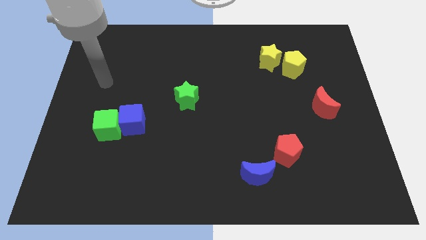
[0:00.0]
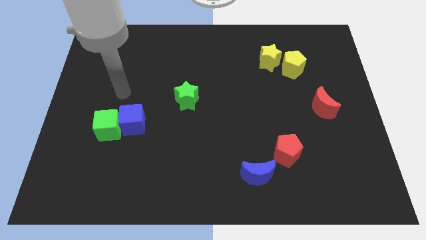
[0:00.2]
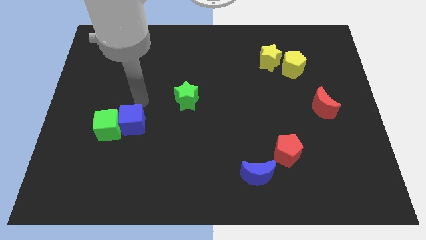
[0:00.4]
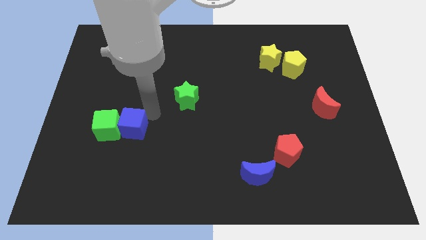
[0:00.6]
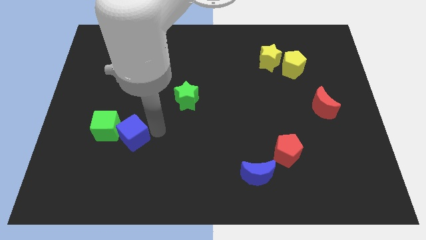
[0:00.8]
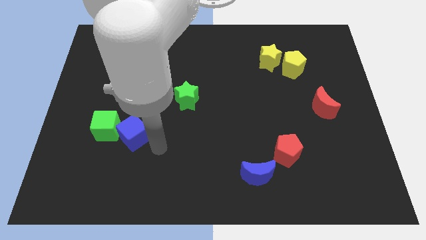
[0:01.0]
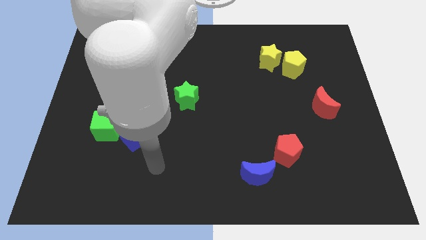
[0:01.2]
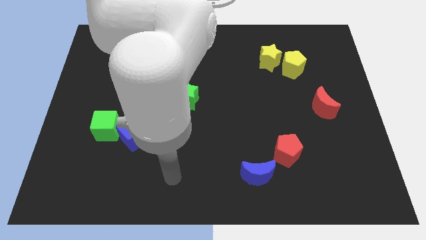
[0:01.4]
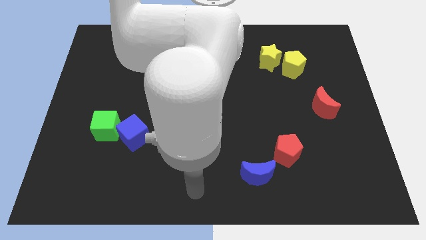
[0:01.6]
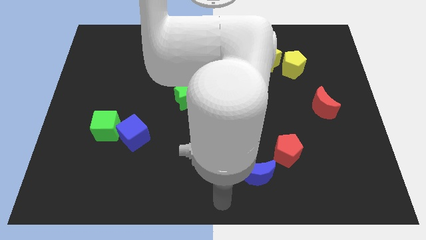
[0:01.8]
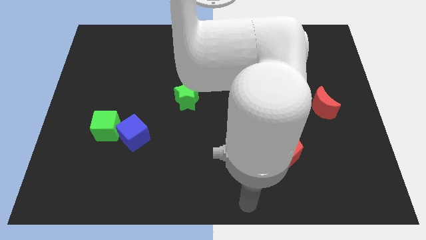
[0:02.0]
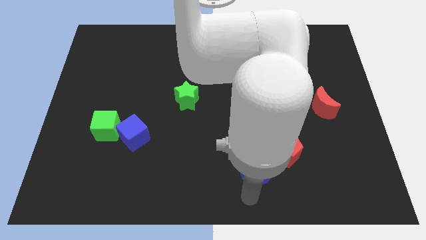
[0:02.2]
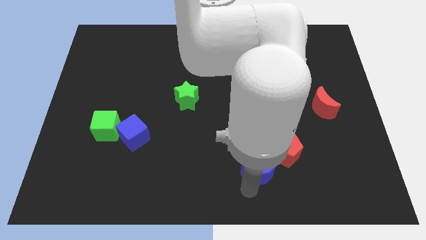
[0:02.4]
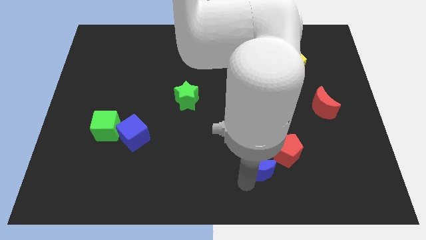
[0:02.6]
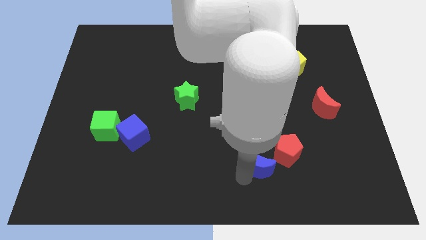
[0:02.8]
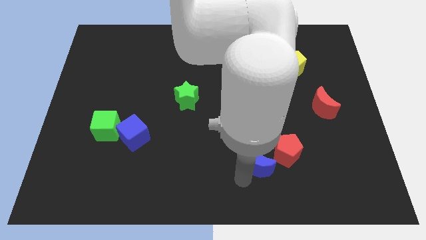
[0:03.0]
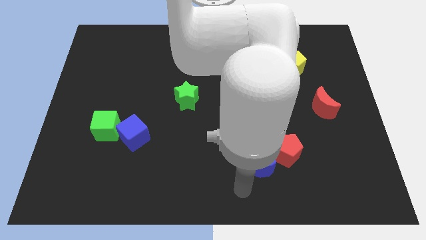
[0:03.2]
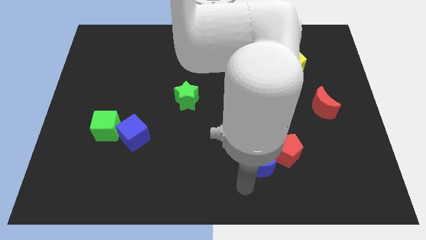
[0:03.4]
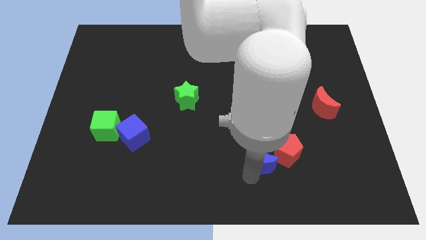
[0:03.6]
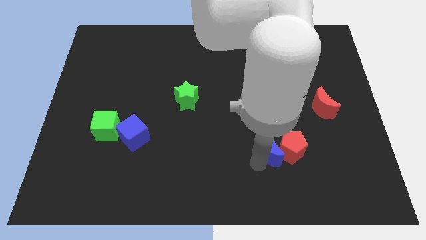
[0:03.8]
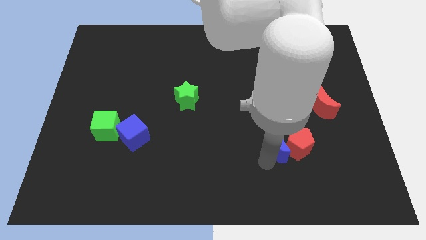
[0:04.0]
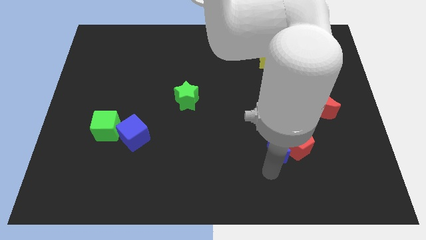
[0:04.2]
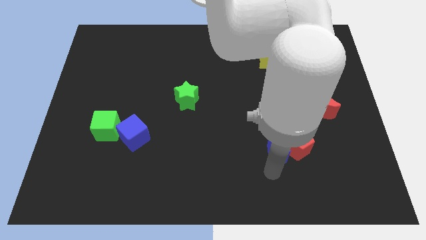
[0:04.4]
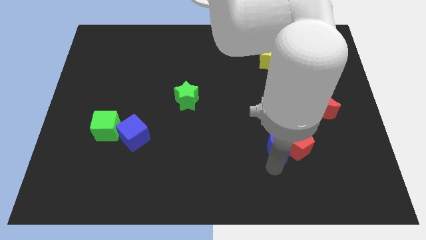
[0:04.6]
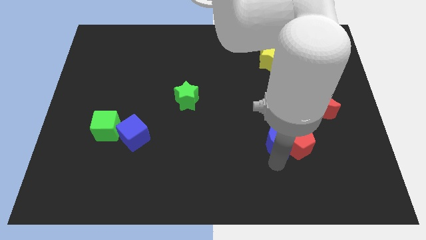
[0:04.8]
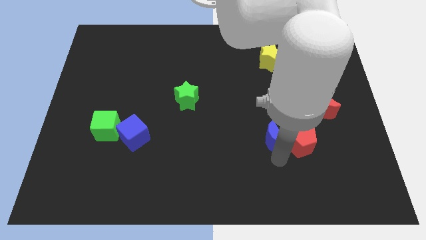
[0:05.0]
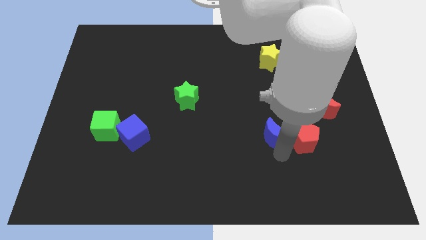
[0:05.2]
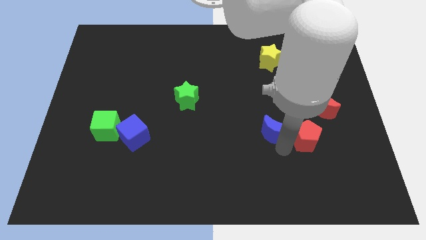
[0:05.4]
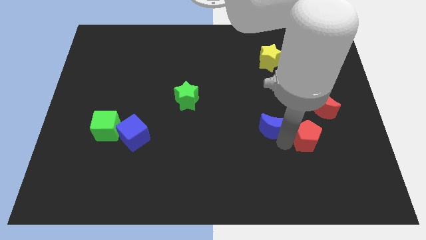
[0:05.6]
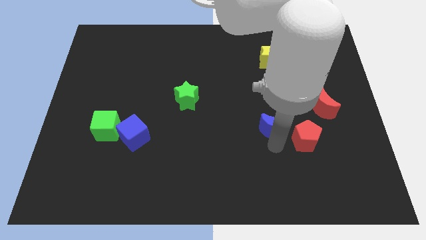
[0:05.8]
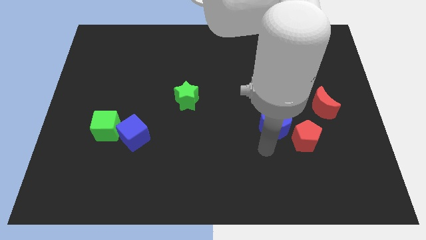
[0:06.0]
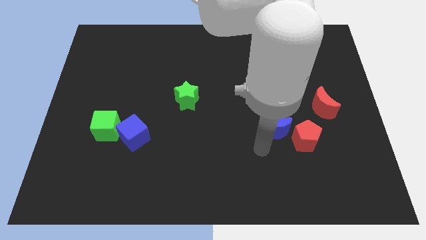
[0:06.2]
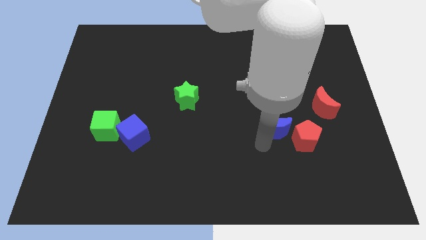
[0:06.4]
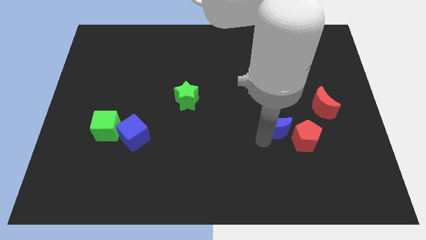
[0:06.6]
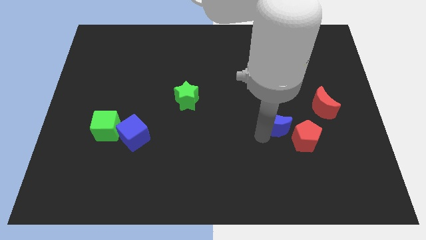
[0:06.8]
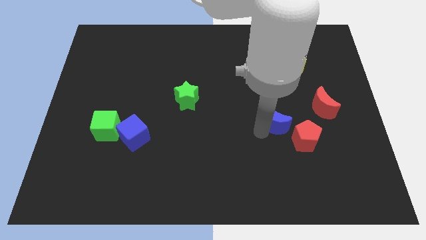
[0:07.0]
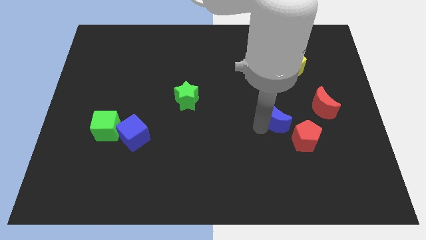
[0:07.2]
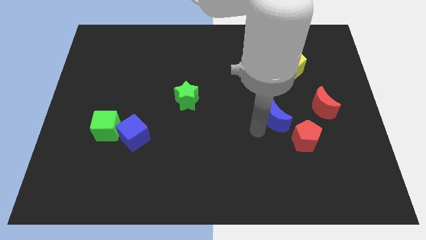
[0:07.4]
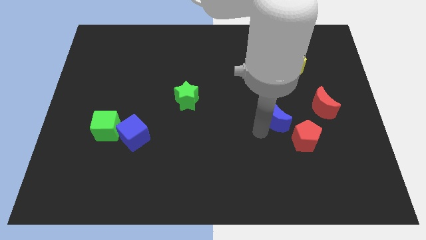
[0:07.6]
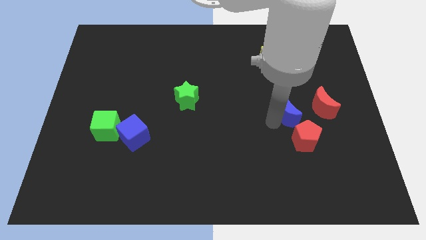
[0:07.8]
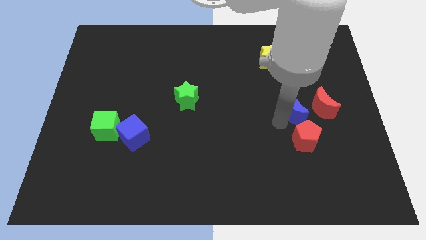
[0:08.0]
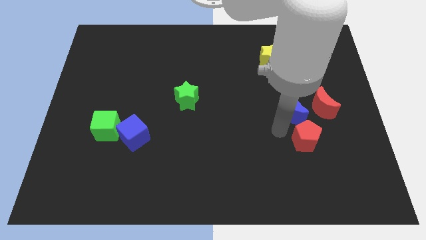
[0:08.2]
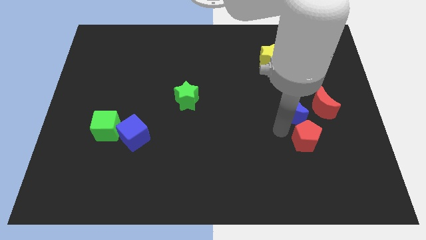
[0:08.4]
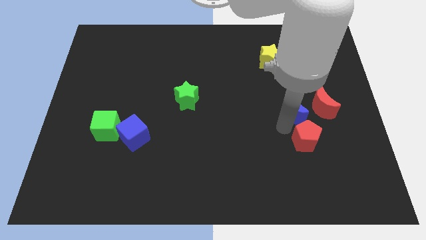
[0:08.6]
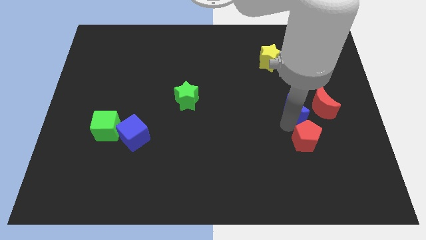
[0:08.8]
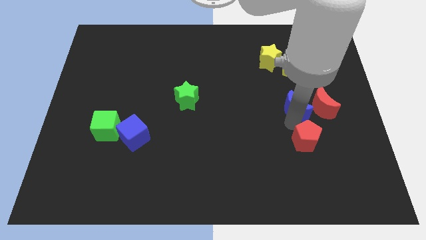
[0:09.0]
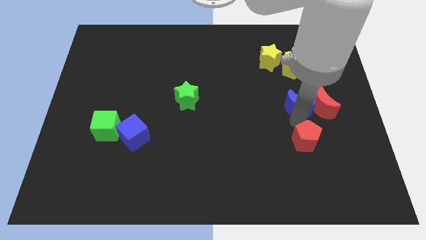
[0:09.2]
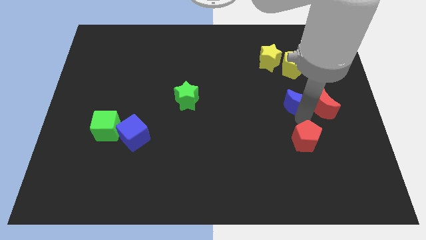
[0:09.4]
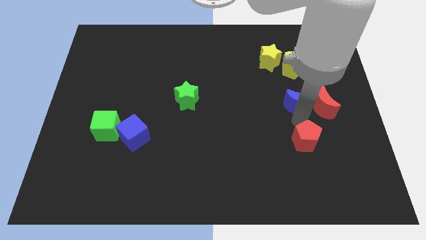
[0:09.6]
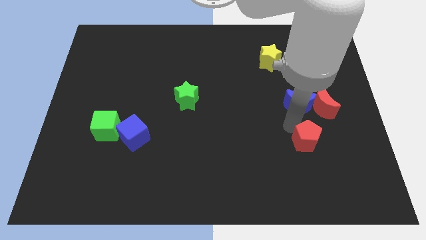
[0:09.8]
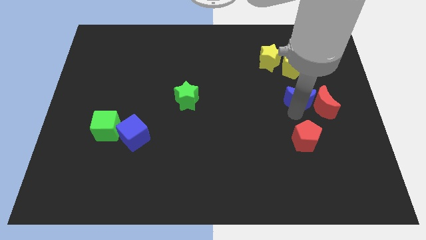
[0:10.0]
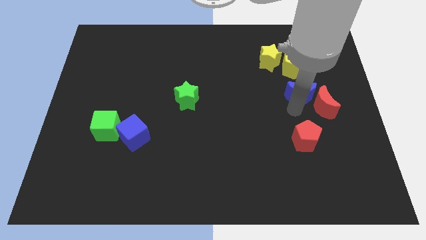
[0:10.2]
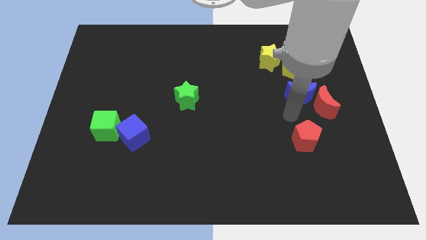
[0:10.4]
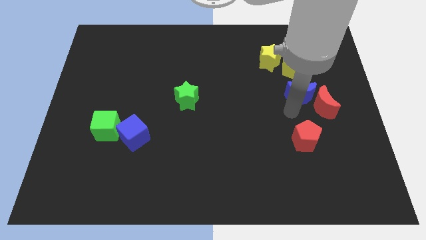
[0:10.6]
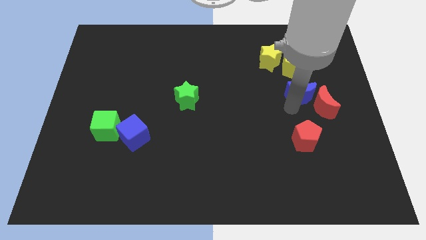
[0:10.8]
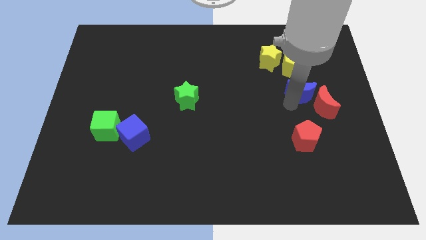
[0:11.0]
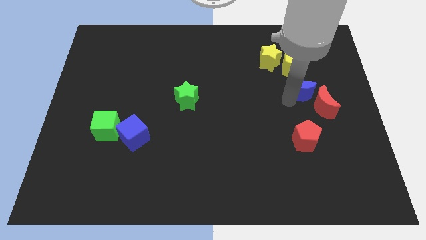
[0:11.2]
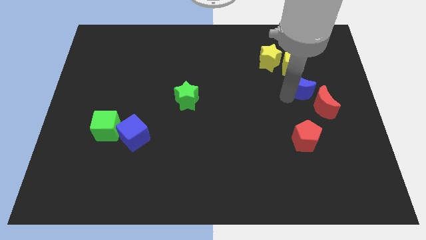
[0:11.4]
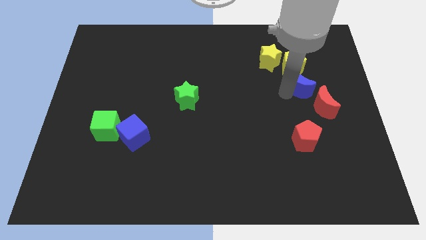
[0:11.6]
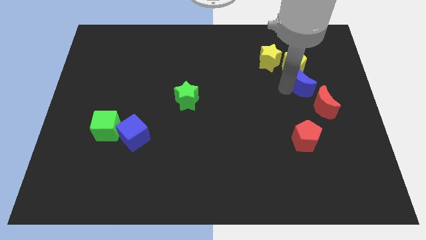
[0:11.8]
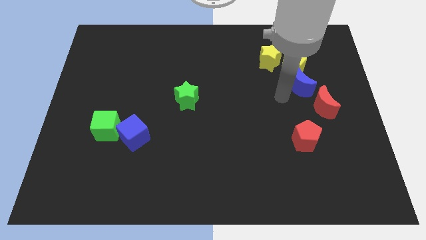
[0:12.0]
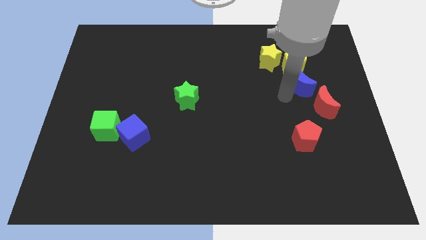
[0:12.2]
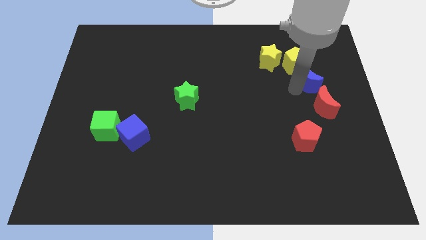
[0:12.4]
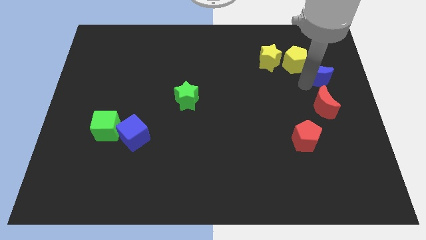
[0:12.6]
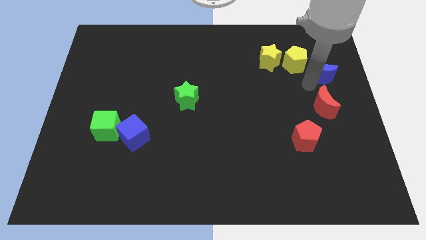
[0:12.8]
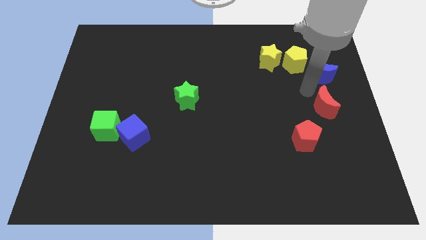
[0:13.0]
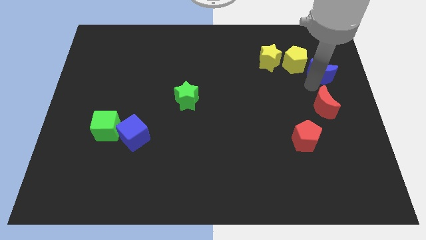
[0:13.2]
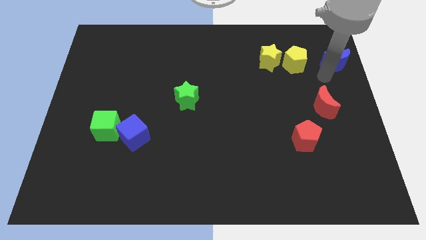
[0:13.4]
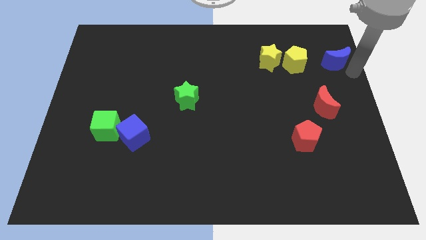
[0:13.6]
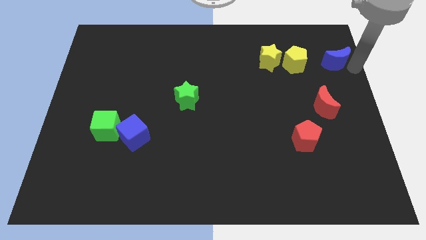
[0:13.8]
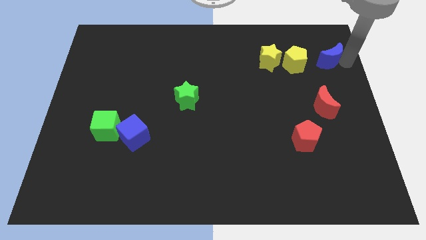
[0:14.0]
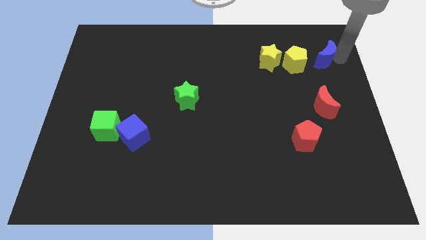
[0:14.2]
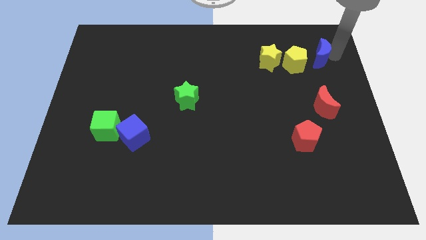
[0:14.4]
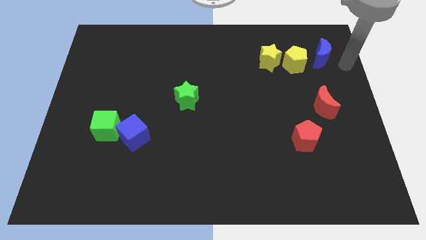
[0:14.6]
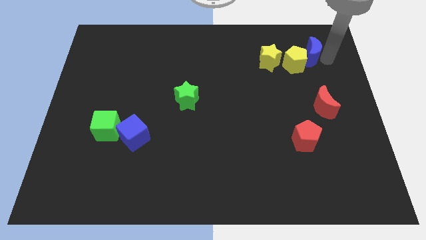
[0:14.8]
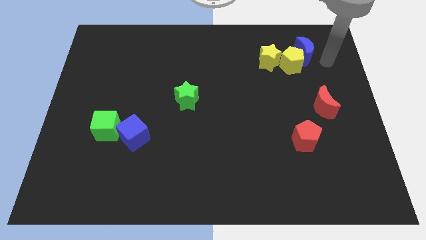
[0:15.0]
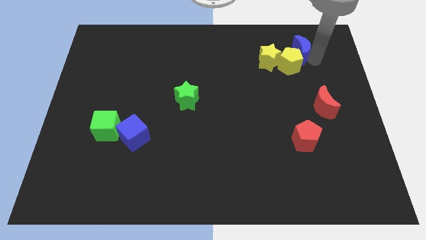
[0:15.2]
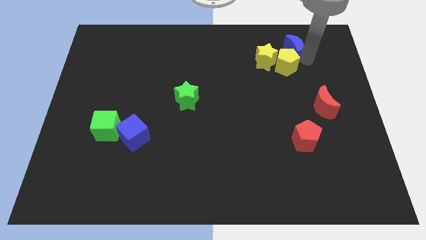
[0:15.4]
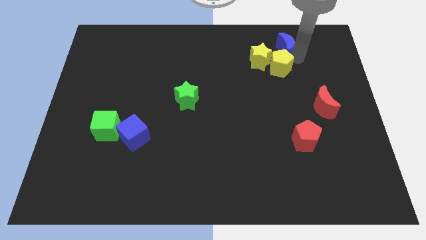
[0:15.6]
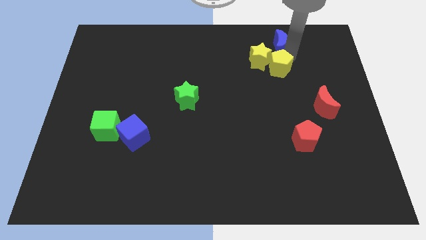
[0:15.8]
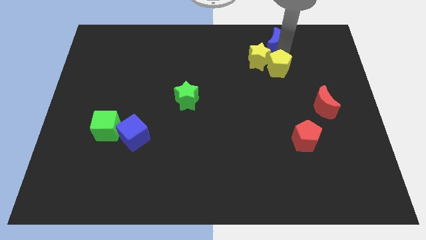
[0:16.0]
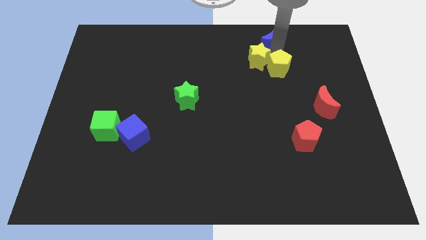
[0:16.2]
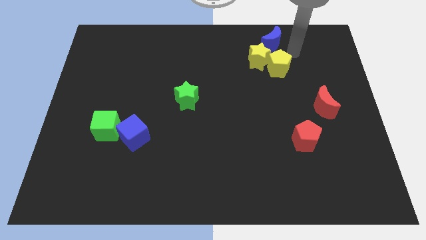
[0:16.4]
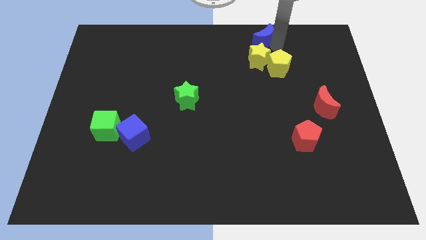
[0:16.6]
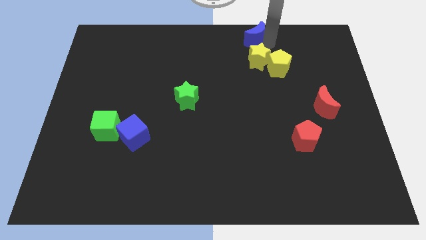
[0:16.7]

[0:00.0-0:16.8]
put the blue moon to the top side
